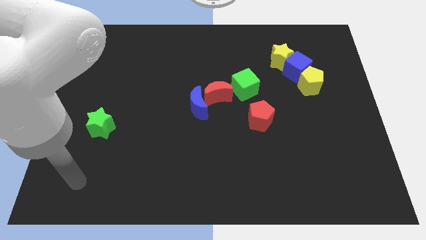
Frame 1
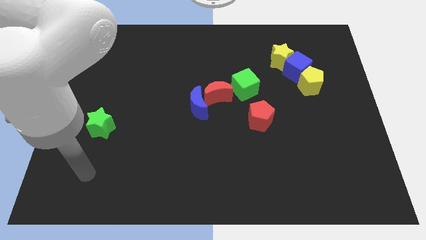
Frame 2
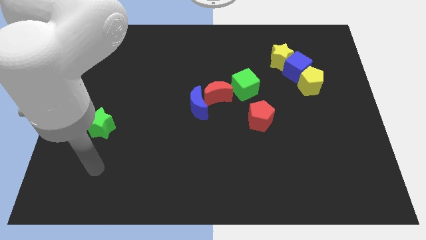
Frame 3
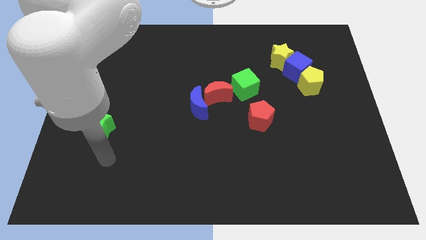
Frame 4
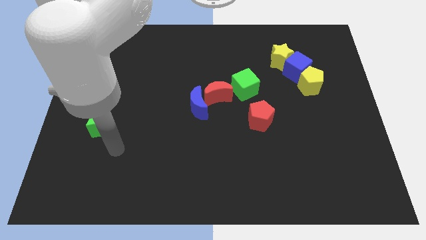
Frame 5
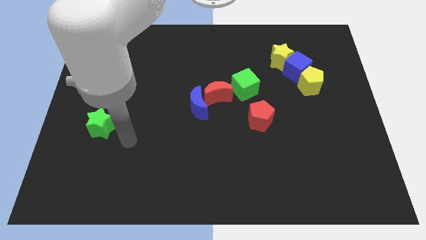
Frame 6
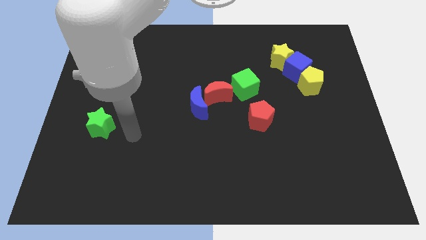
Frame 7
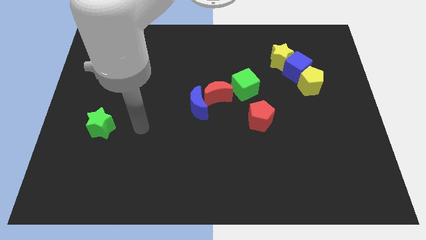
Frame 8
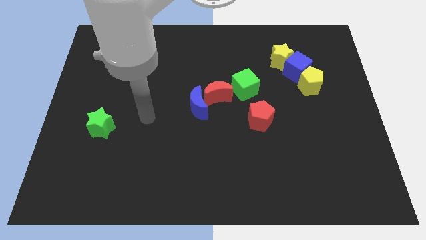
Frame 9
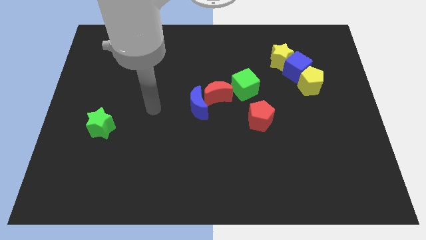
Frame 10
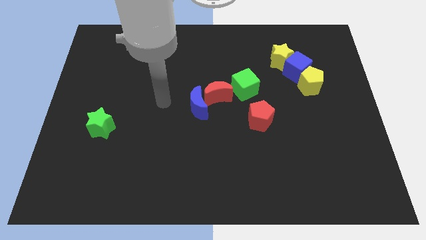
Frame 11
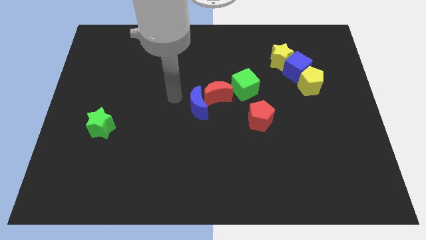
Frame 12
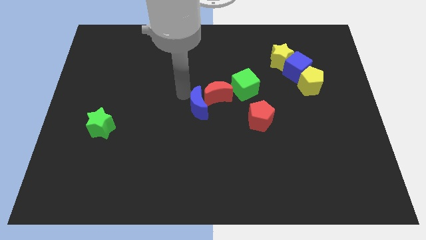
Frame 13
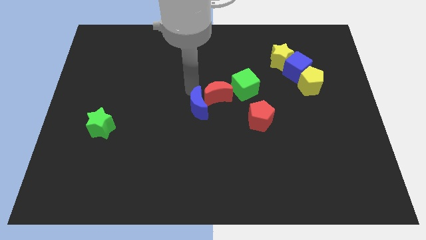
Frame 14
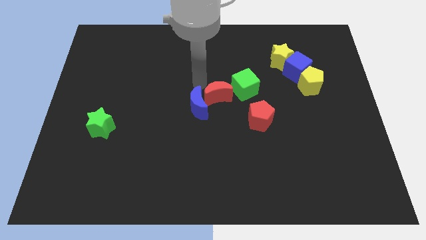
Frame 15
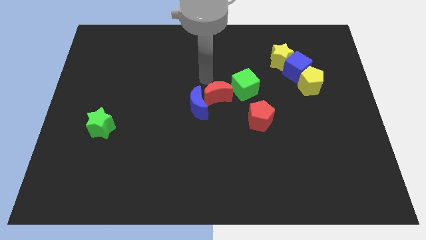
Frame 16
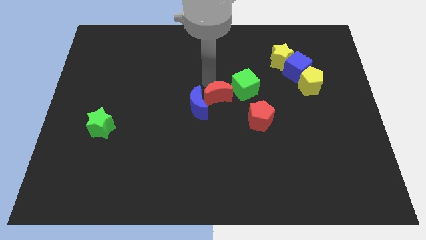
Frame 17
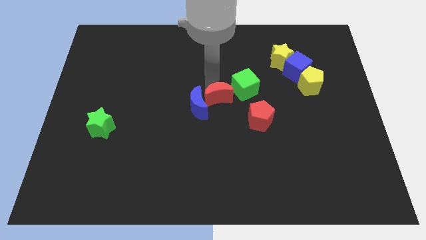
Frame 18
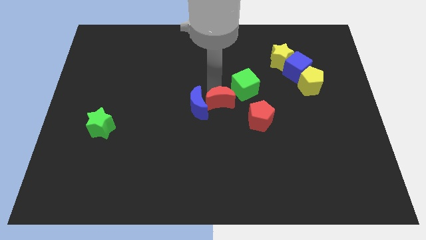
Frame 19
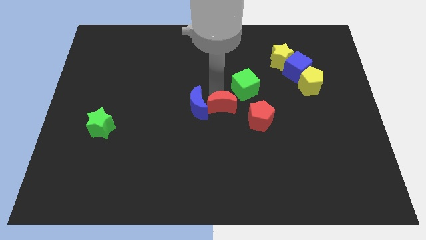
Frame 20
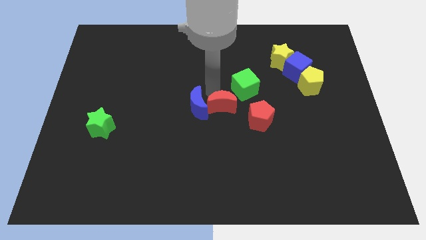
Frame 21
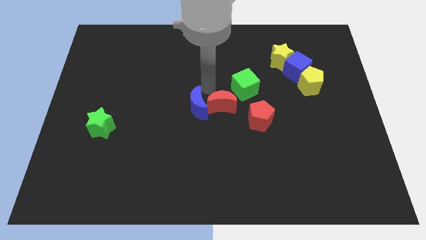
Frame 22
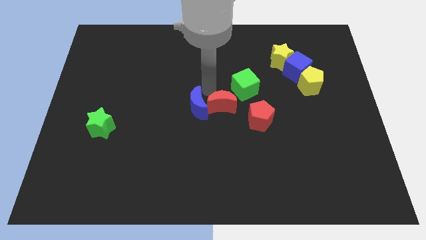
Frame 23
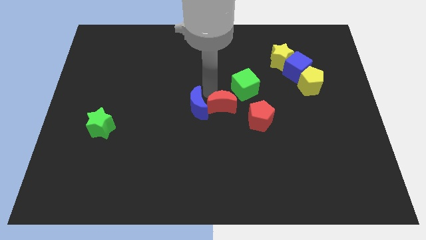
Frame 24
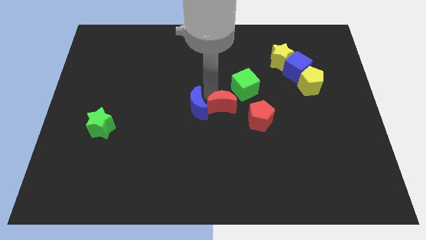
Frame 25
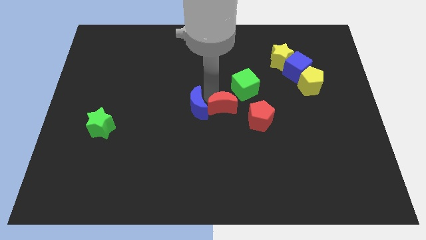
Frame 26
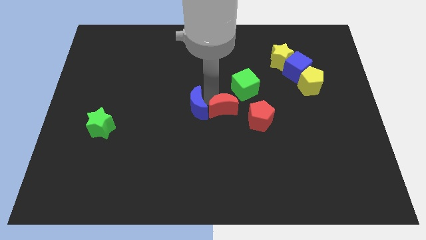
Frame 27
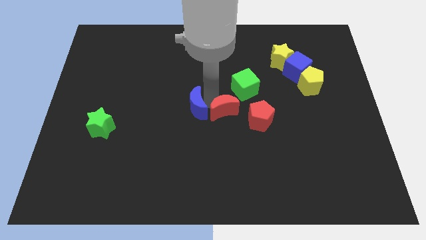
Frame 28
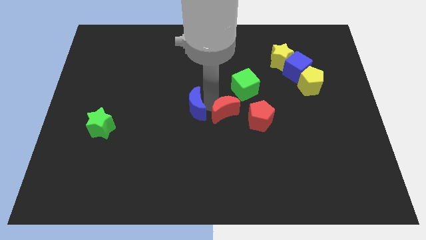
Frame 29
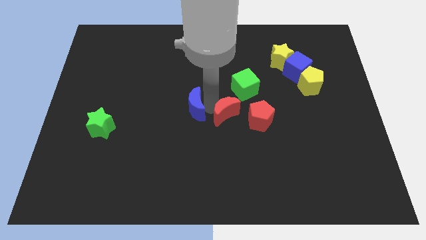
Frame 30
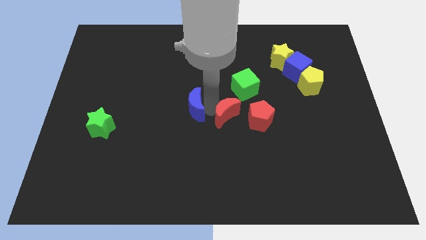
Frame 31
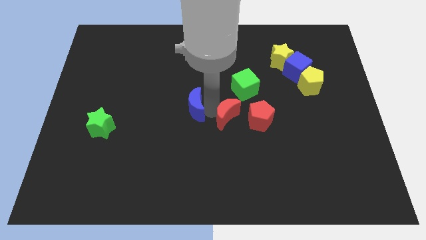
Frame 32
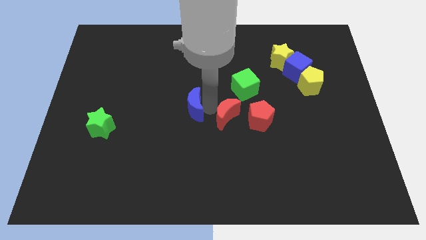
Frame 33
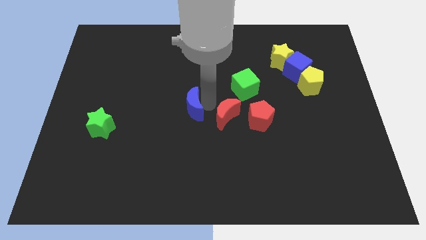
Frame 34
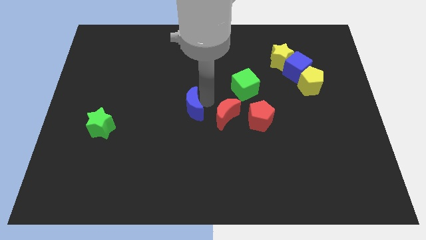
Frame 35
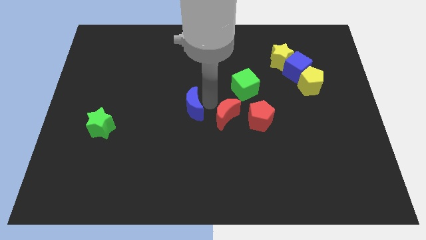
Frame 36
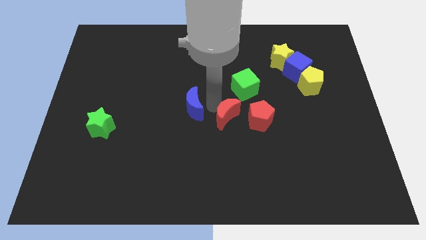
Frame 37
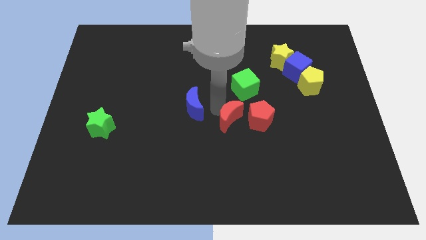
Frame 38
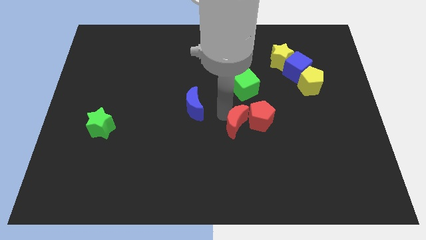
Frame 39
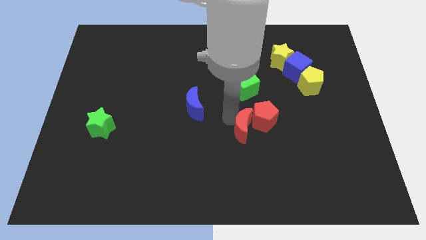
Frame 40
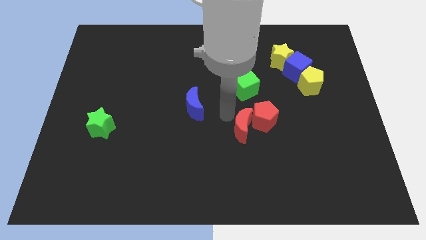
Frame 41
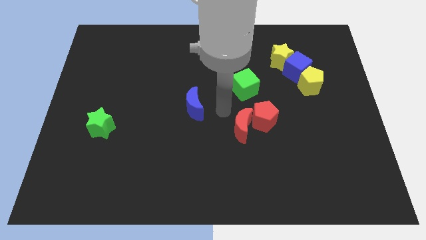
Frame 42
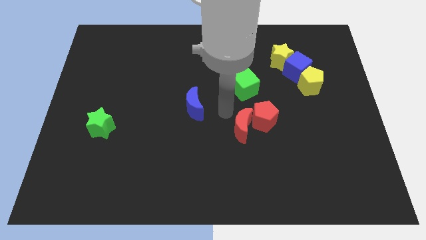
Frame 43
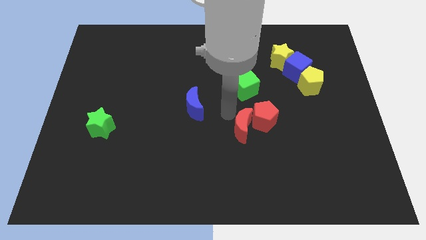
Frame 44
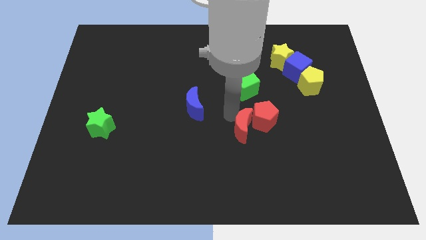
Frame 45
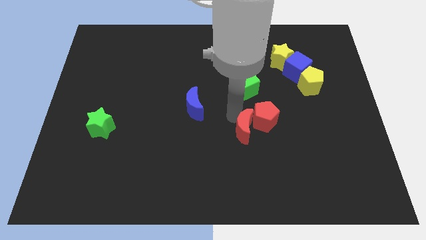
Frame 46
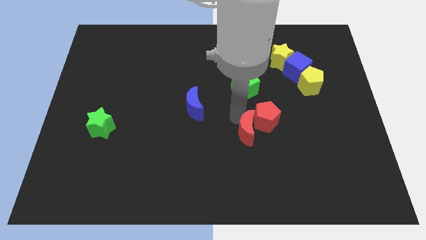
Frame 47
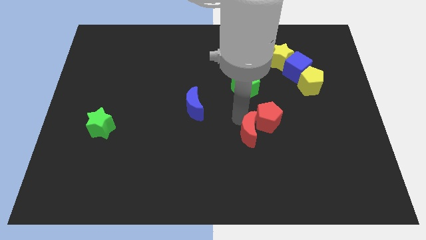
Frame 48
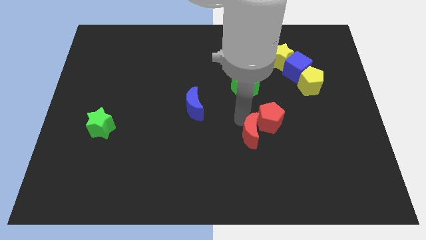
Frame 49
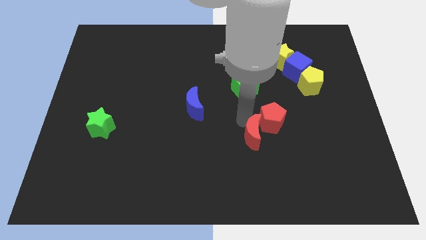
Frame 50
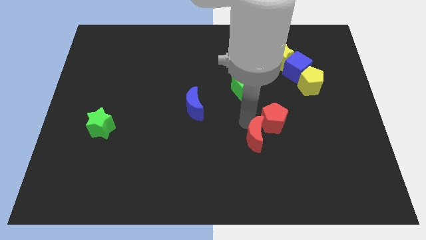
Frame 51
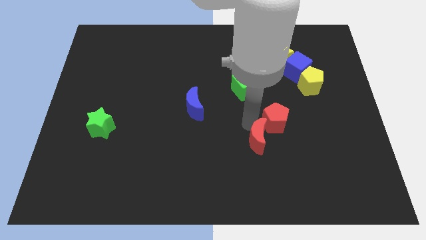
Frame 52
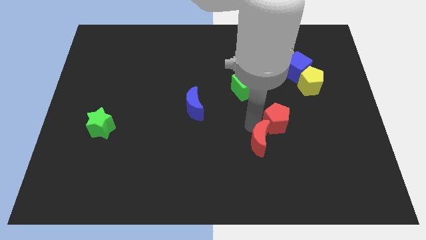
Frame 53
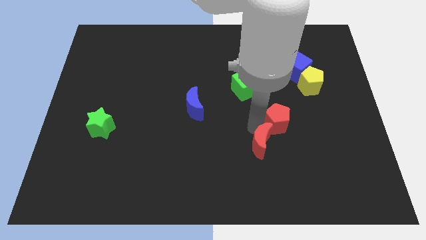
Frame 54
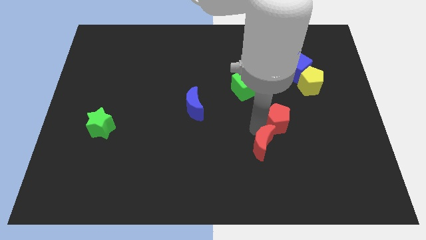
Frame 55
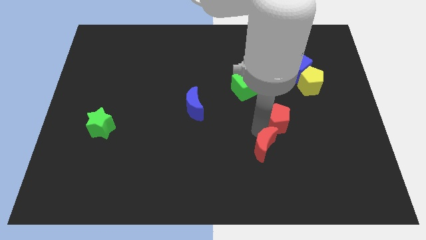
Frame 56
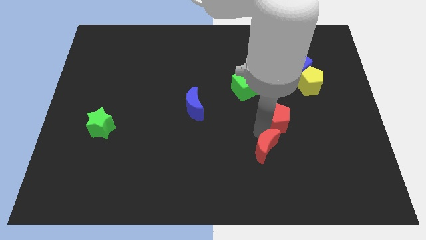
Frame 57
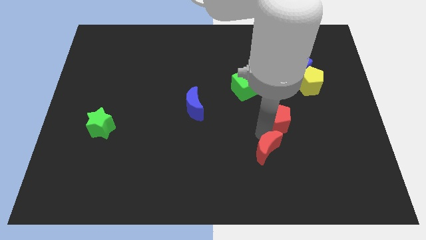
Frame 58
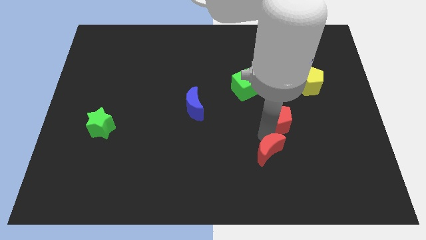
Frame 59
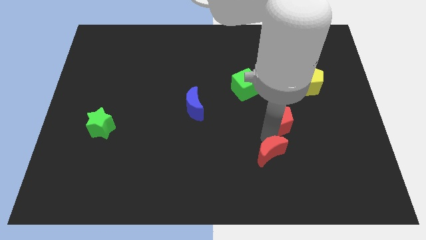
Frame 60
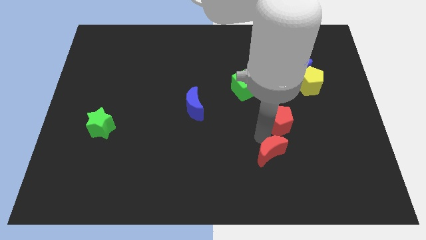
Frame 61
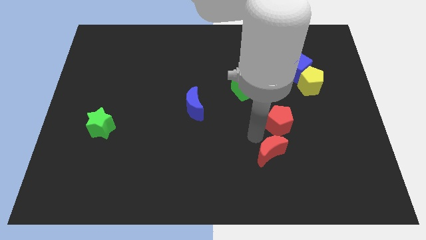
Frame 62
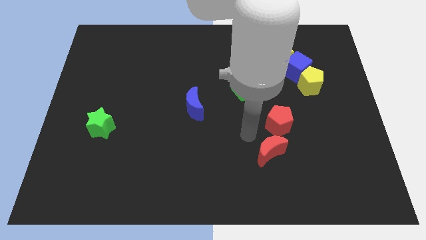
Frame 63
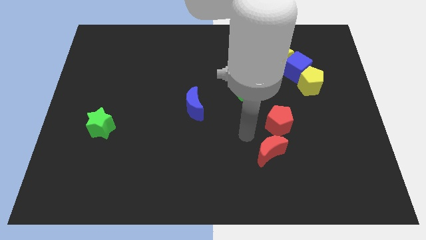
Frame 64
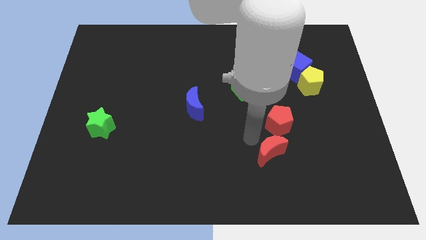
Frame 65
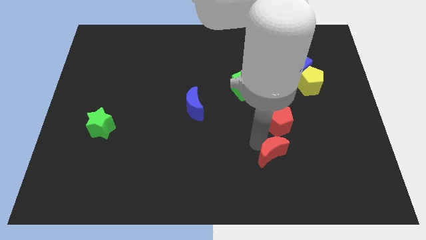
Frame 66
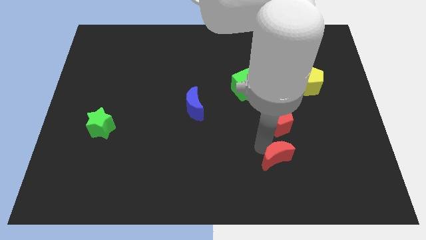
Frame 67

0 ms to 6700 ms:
move the red moon down and then right

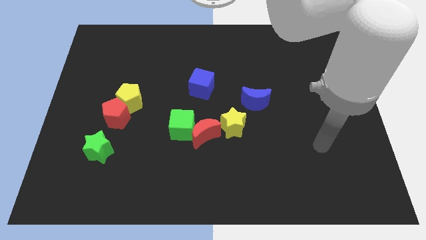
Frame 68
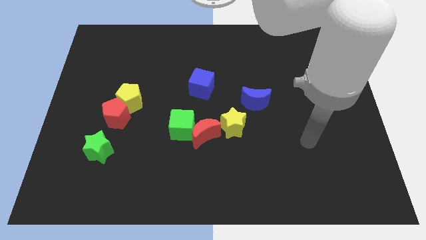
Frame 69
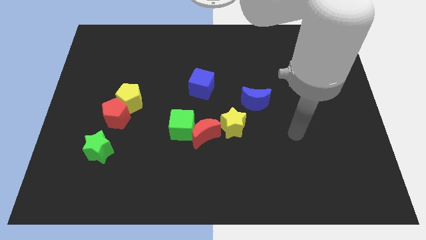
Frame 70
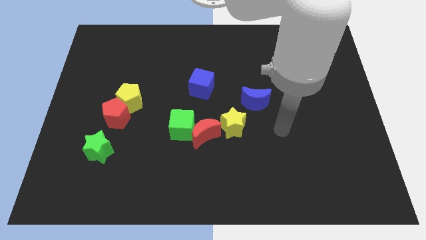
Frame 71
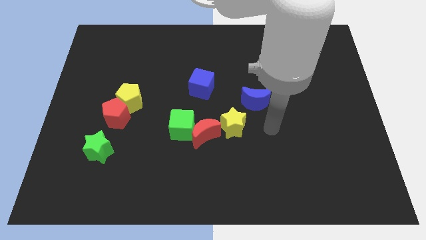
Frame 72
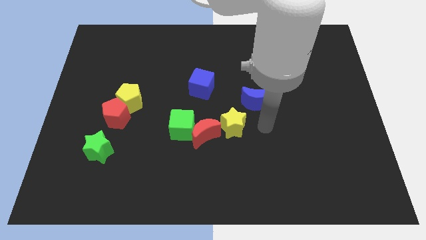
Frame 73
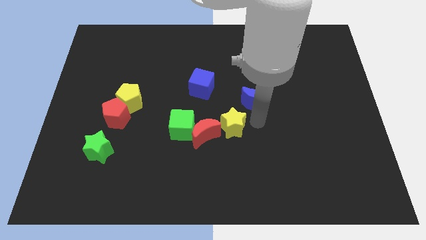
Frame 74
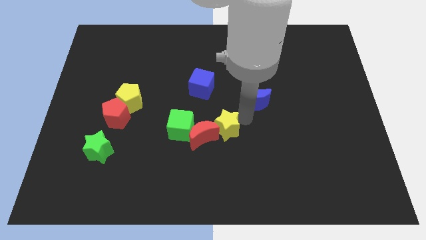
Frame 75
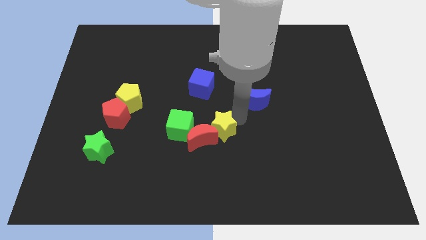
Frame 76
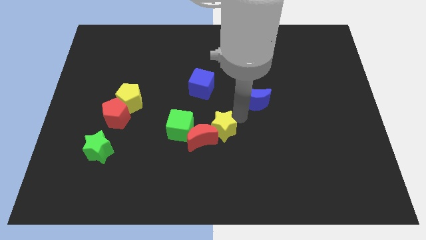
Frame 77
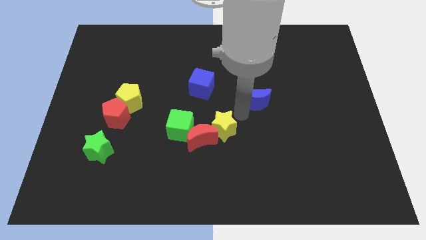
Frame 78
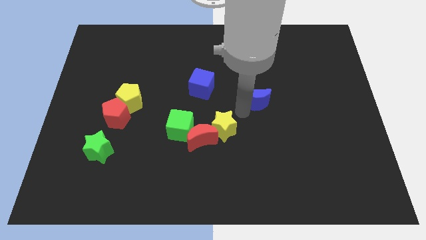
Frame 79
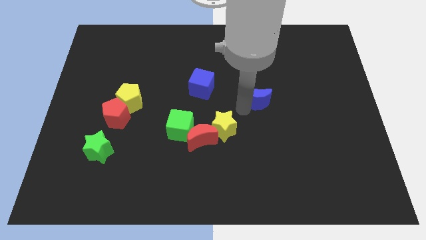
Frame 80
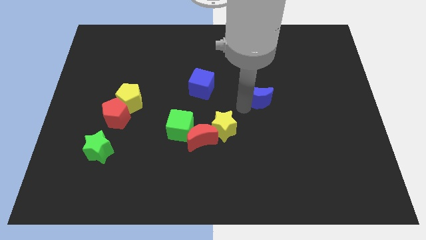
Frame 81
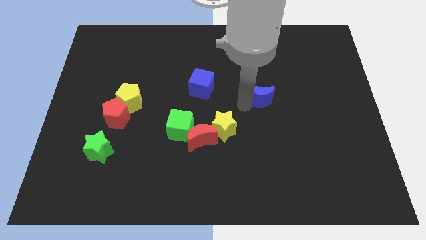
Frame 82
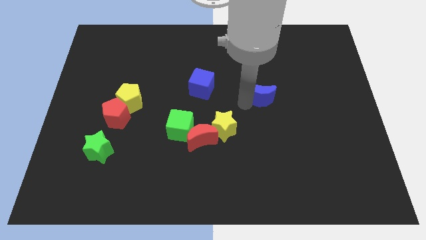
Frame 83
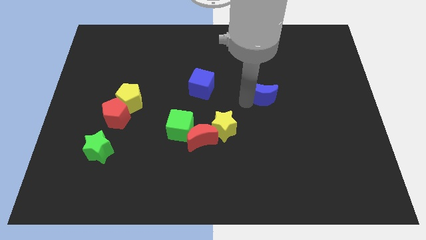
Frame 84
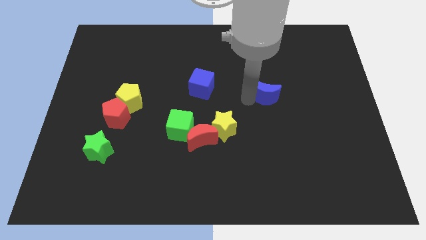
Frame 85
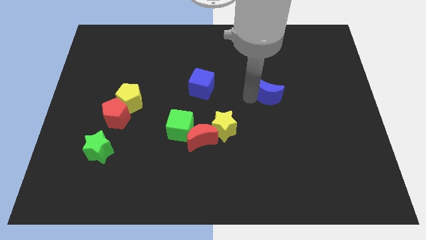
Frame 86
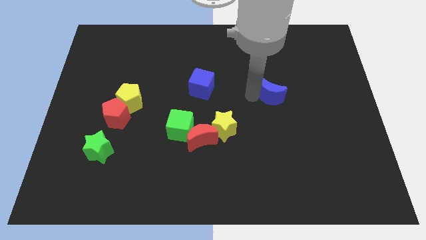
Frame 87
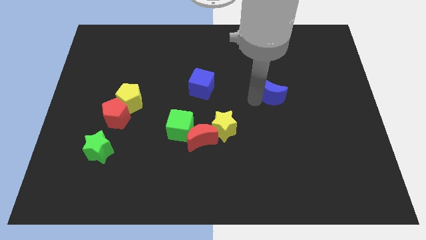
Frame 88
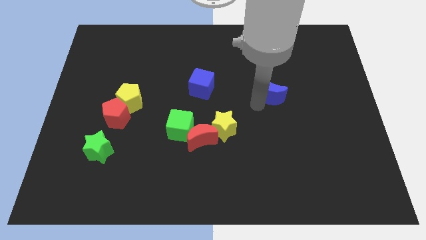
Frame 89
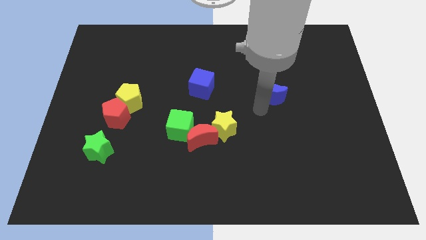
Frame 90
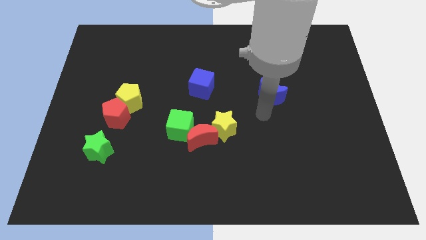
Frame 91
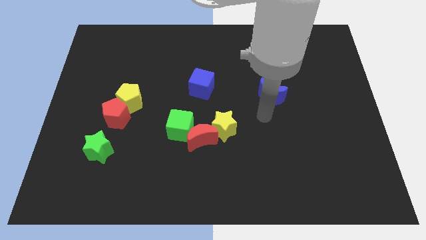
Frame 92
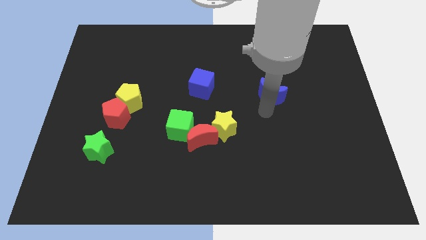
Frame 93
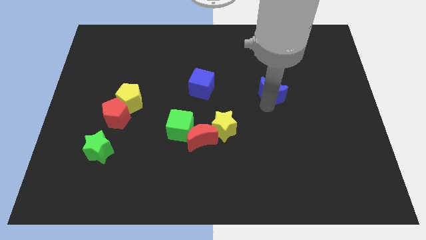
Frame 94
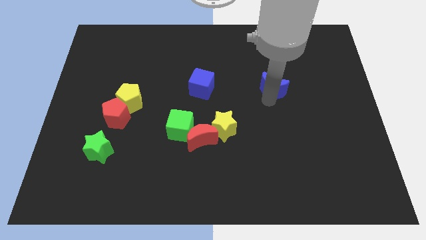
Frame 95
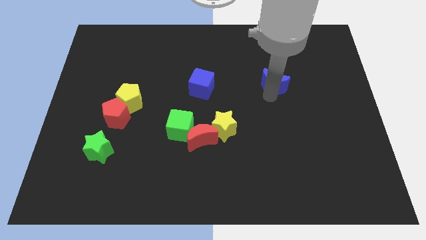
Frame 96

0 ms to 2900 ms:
push the blue moon up and then to the right a little bit
